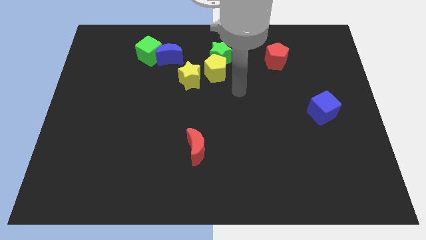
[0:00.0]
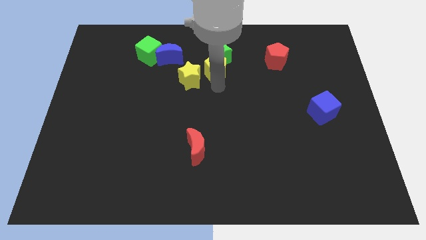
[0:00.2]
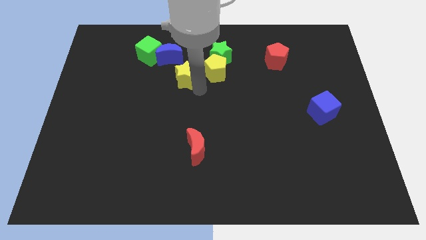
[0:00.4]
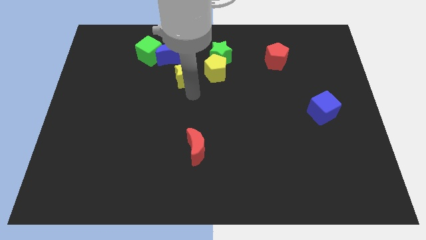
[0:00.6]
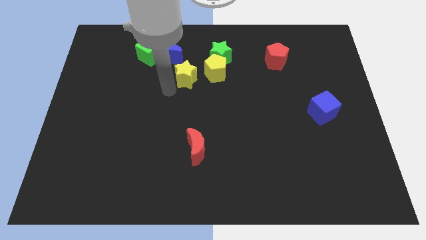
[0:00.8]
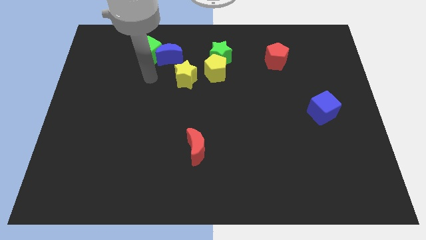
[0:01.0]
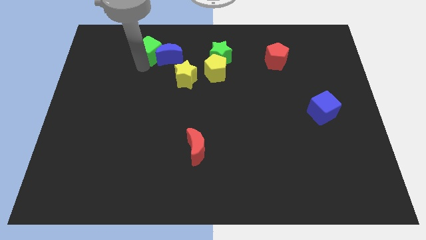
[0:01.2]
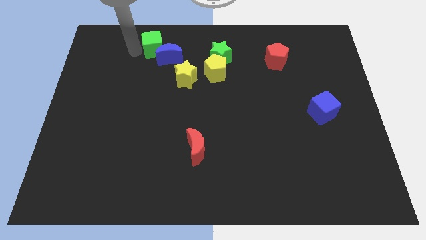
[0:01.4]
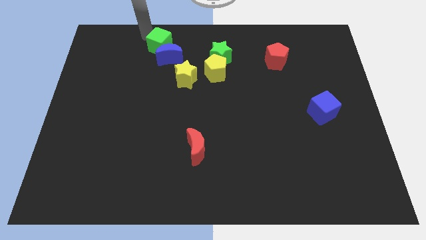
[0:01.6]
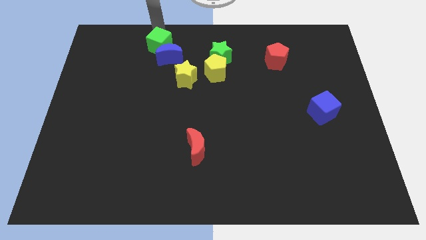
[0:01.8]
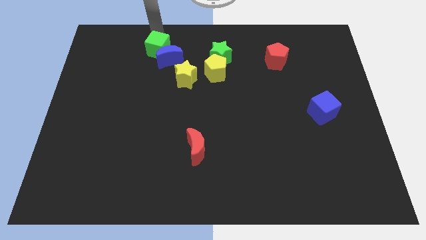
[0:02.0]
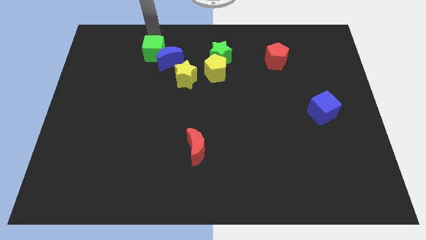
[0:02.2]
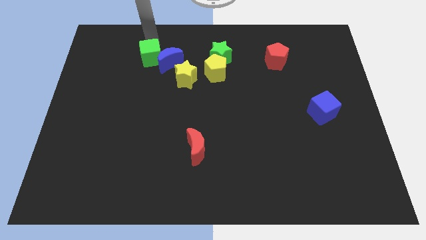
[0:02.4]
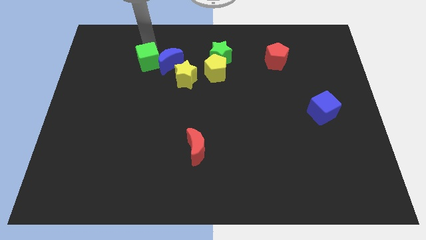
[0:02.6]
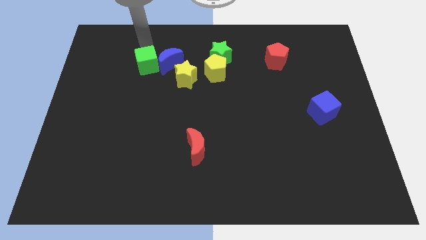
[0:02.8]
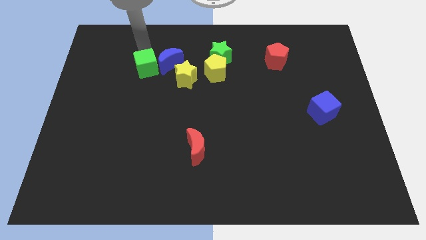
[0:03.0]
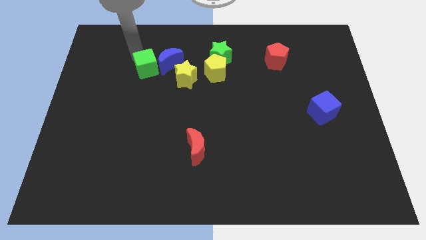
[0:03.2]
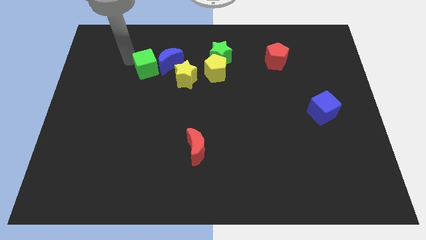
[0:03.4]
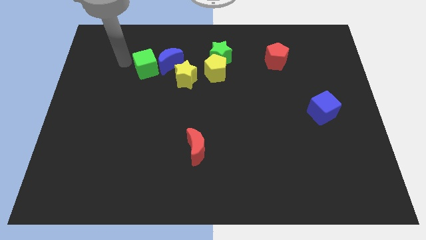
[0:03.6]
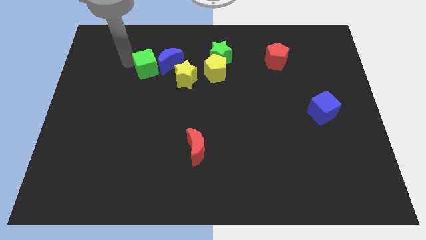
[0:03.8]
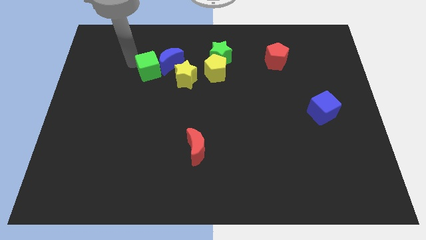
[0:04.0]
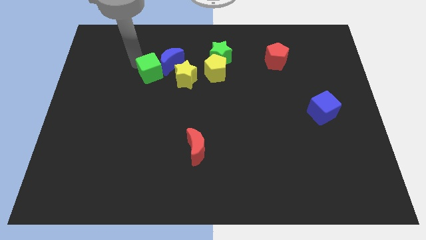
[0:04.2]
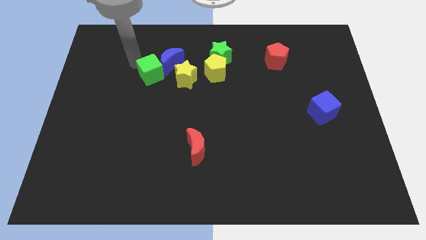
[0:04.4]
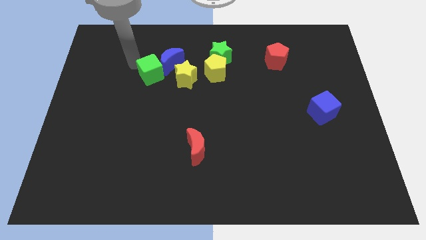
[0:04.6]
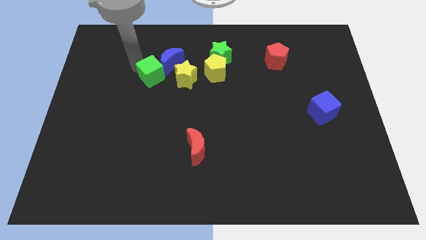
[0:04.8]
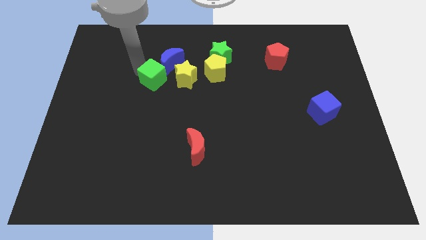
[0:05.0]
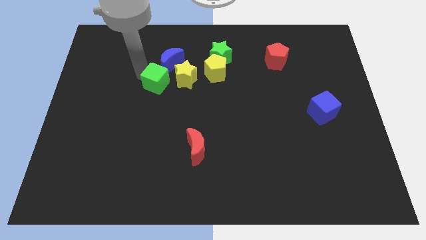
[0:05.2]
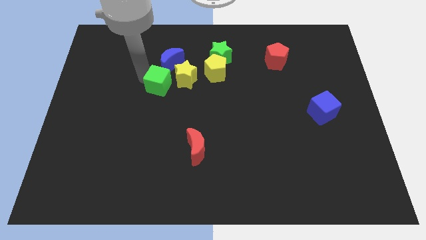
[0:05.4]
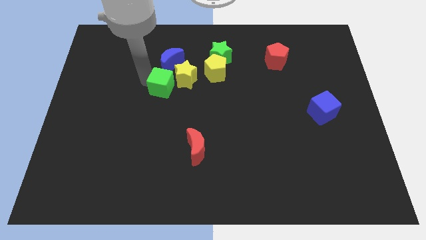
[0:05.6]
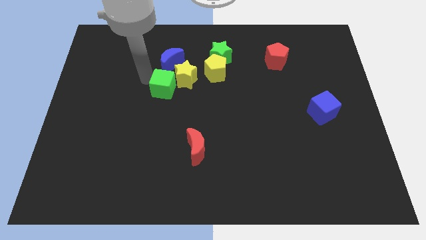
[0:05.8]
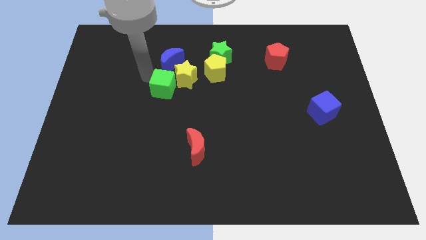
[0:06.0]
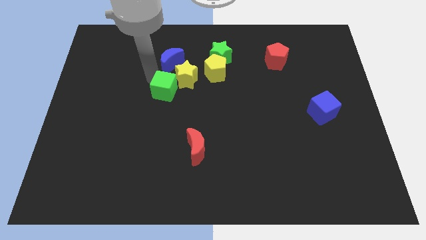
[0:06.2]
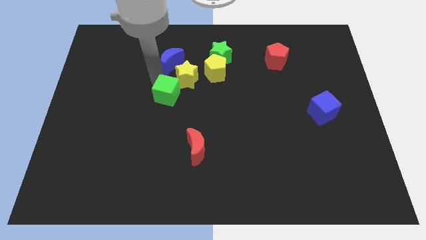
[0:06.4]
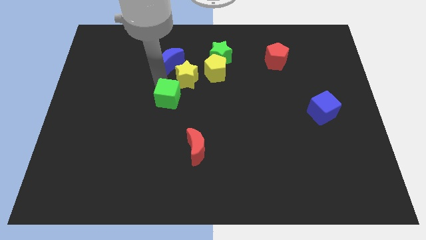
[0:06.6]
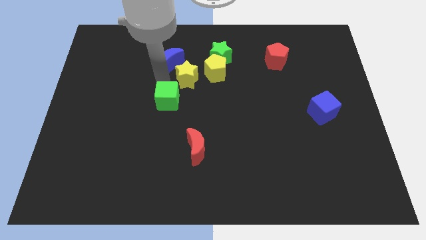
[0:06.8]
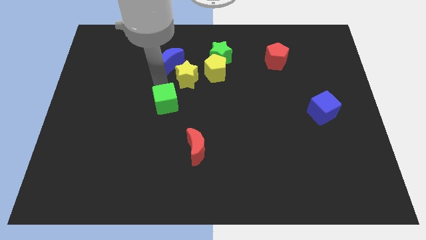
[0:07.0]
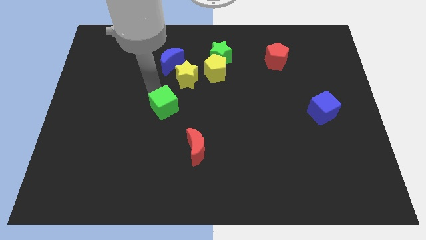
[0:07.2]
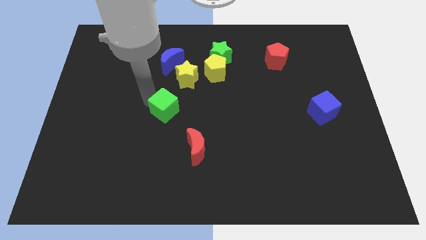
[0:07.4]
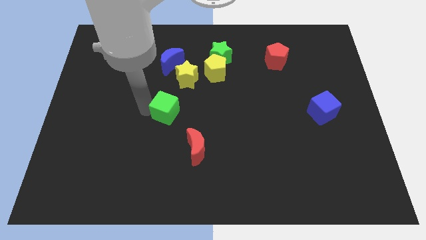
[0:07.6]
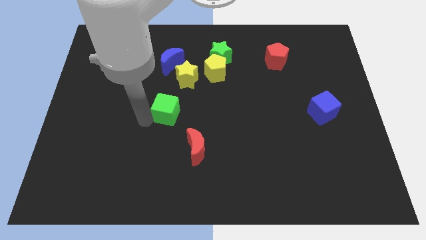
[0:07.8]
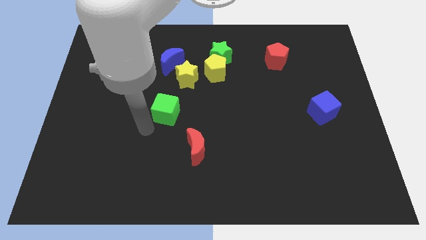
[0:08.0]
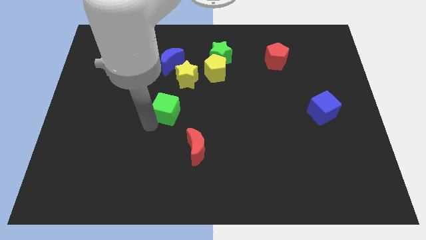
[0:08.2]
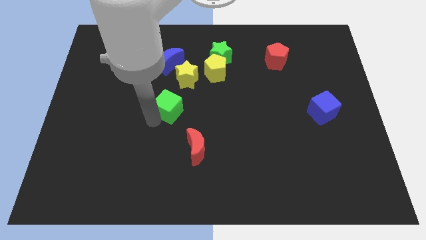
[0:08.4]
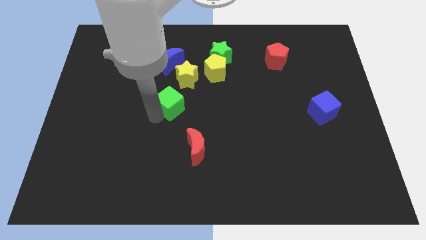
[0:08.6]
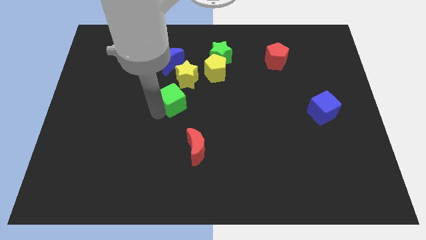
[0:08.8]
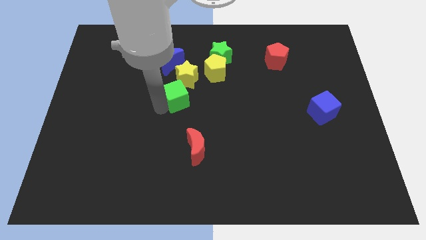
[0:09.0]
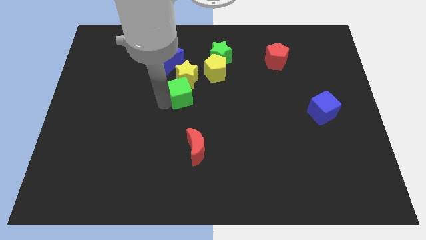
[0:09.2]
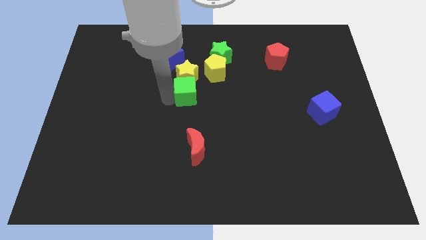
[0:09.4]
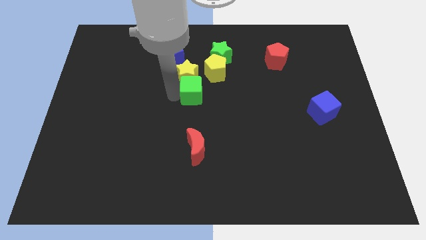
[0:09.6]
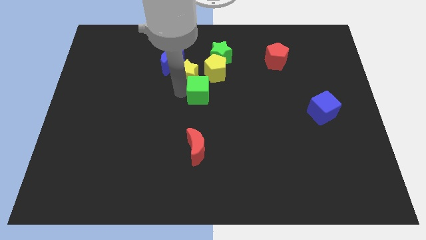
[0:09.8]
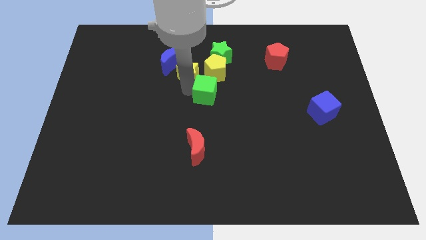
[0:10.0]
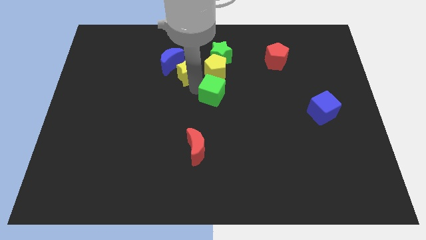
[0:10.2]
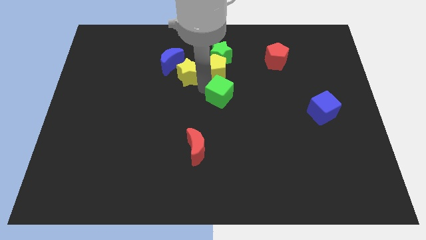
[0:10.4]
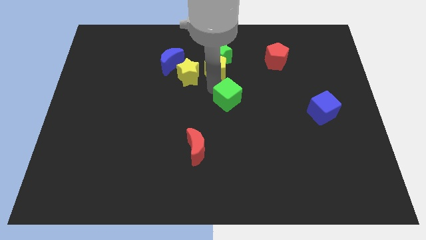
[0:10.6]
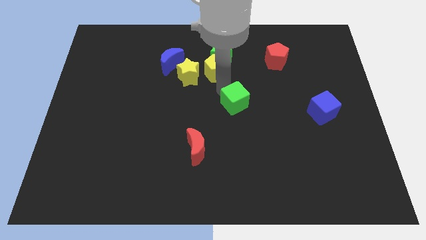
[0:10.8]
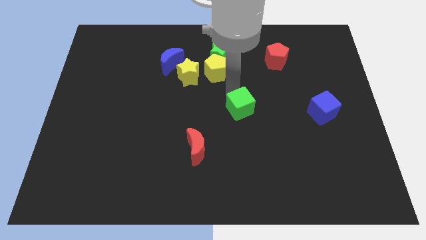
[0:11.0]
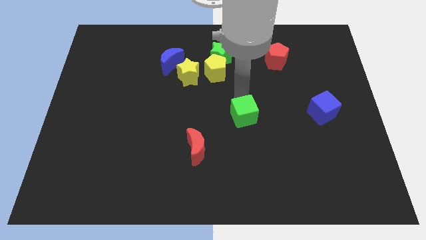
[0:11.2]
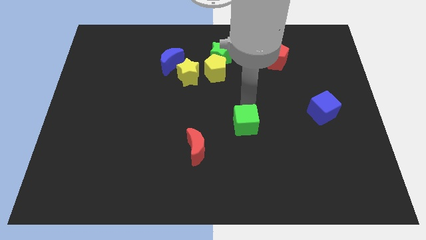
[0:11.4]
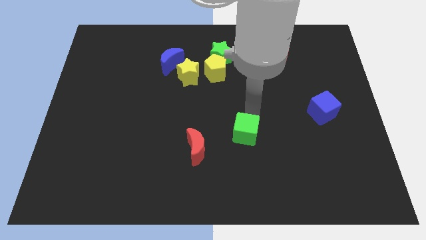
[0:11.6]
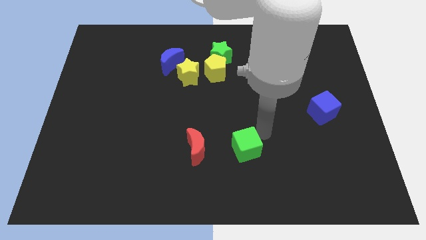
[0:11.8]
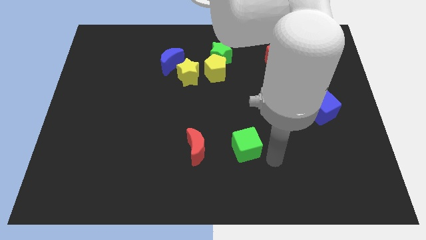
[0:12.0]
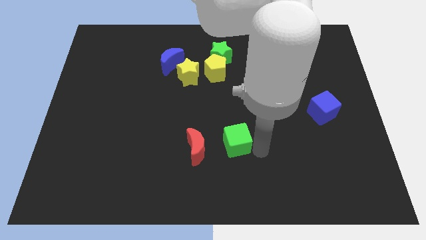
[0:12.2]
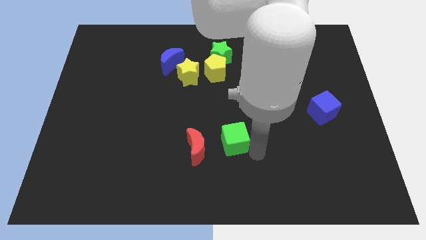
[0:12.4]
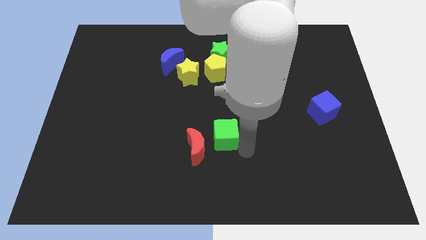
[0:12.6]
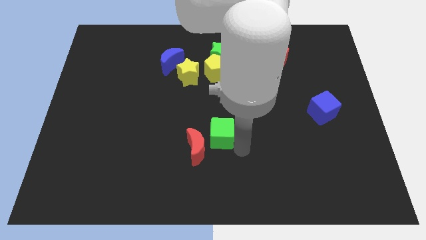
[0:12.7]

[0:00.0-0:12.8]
move the green cube to the red moon

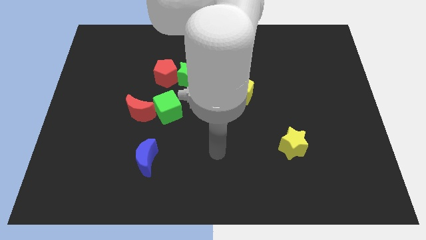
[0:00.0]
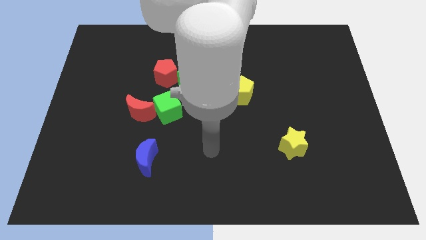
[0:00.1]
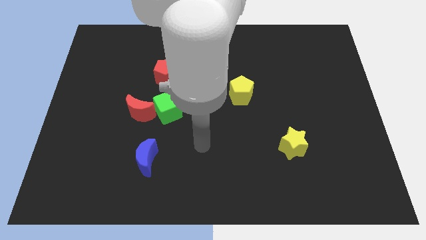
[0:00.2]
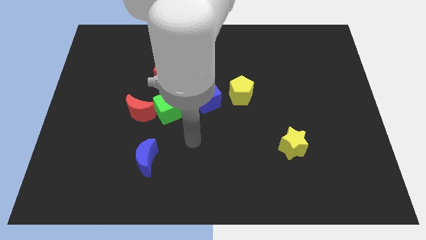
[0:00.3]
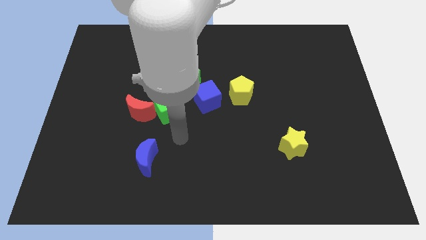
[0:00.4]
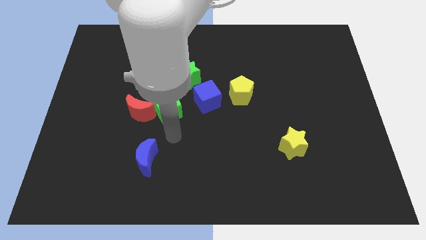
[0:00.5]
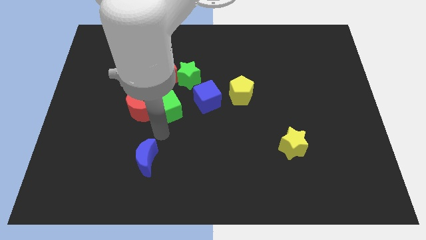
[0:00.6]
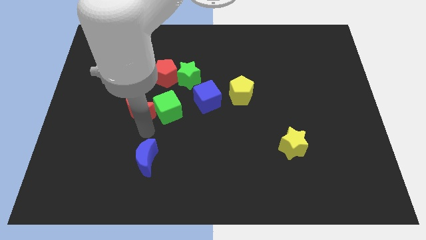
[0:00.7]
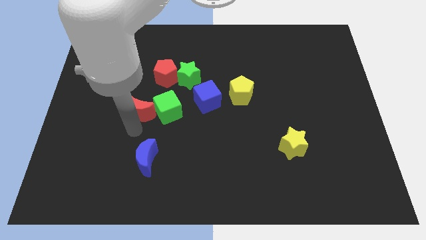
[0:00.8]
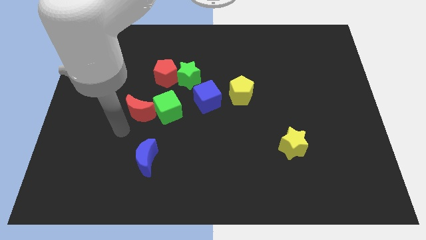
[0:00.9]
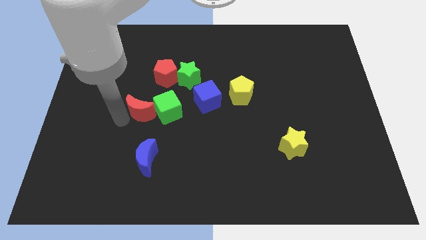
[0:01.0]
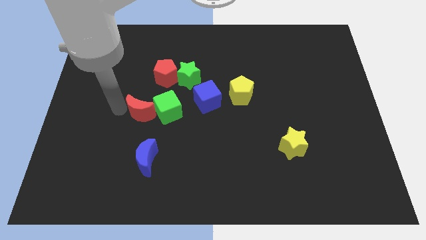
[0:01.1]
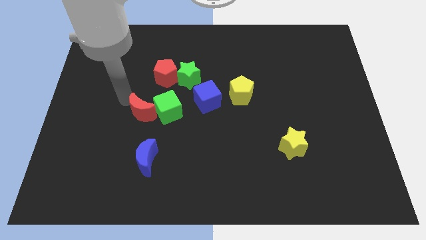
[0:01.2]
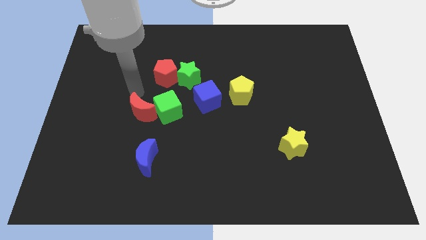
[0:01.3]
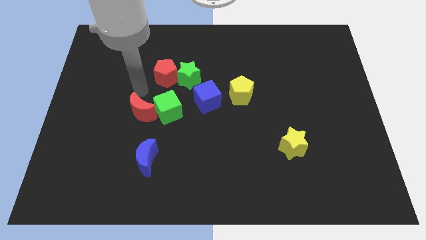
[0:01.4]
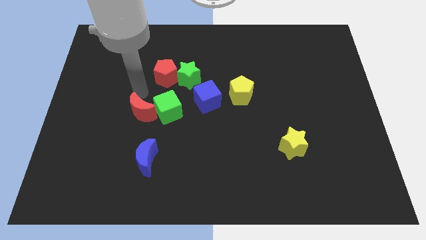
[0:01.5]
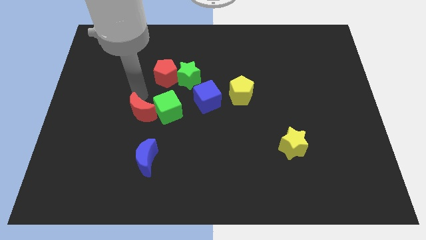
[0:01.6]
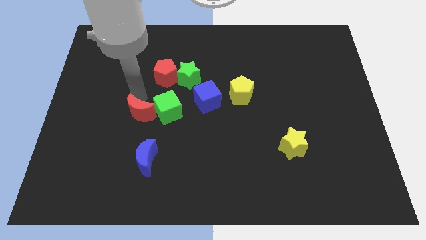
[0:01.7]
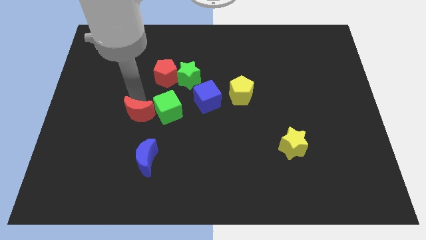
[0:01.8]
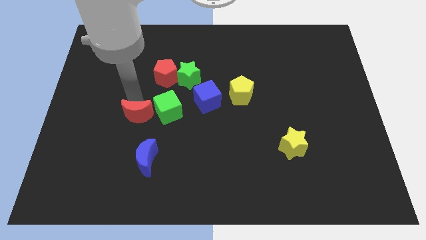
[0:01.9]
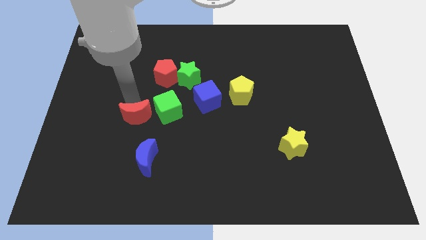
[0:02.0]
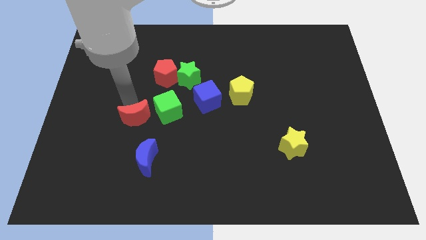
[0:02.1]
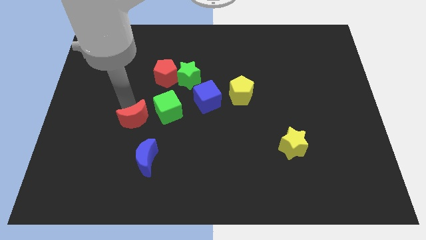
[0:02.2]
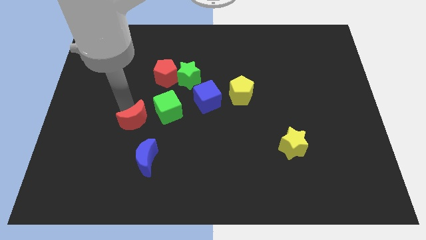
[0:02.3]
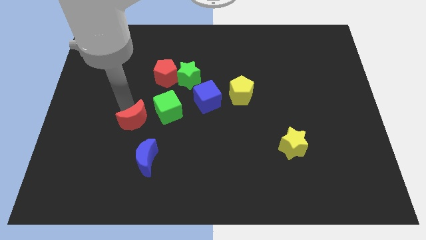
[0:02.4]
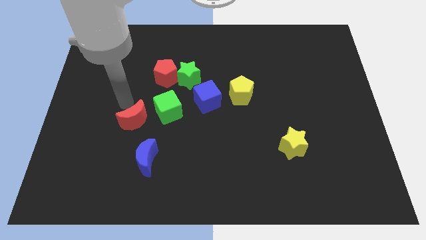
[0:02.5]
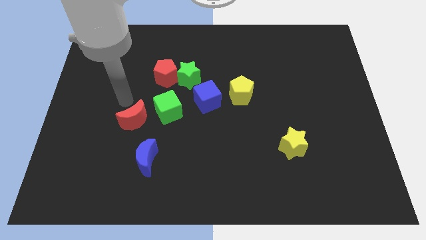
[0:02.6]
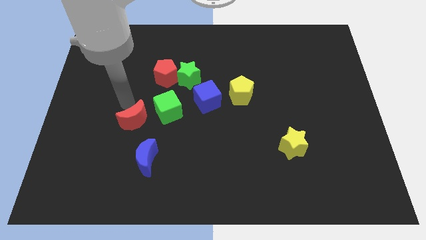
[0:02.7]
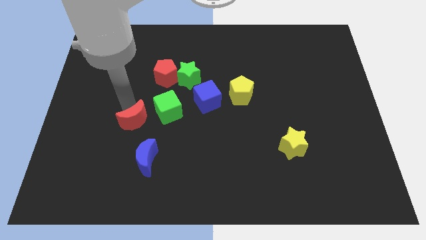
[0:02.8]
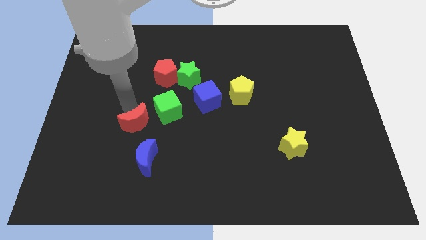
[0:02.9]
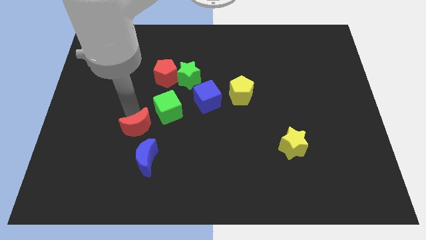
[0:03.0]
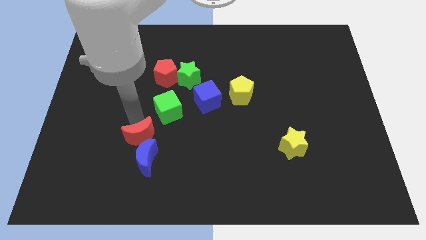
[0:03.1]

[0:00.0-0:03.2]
put the red moon towards the blue moon
